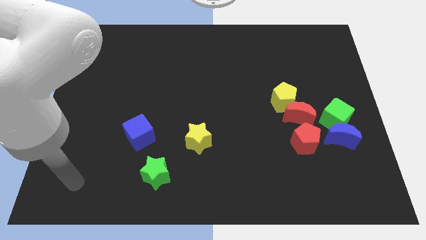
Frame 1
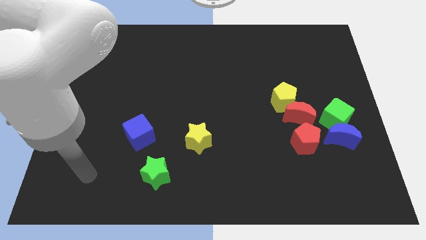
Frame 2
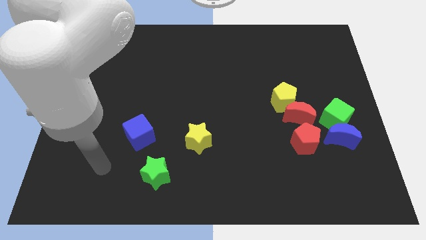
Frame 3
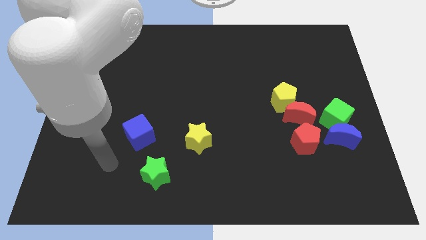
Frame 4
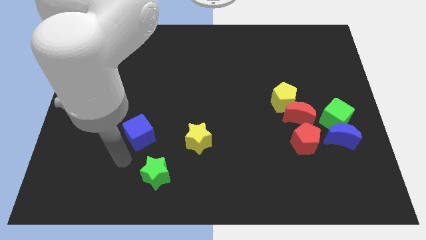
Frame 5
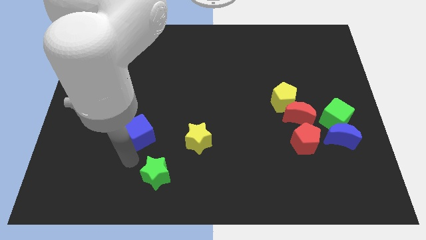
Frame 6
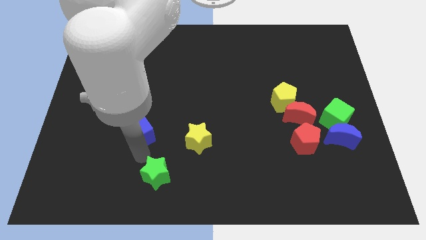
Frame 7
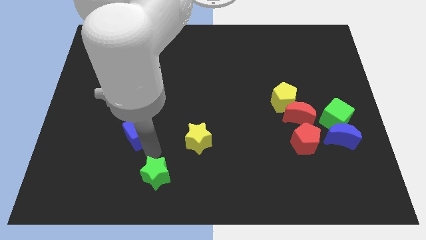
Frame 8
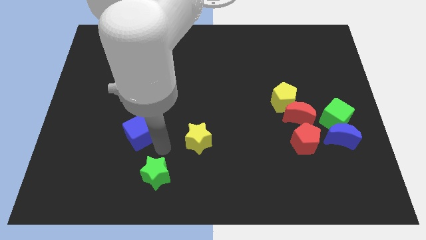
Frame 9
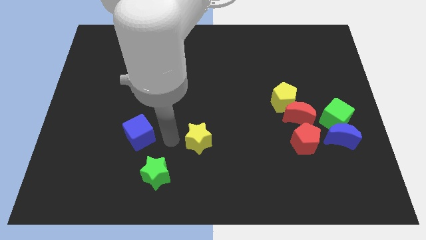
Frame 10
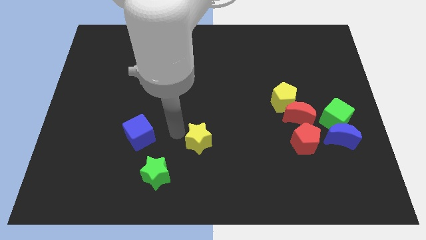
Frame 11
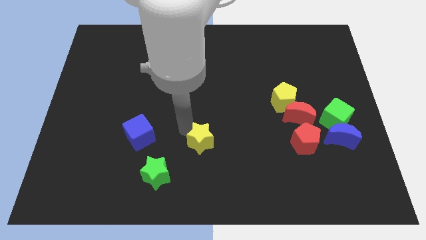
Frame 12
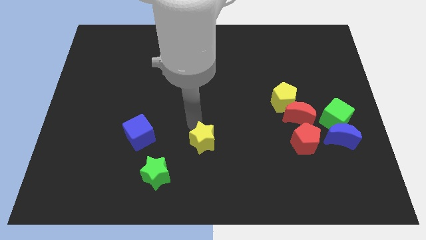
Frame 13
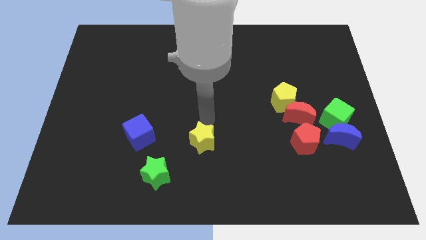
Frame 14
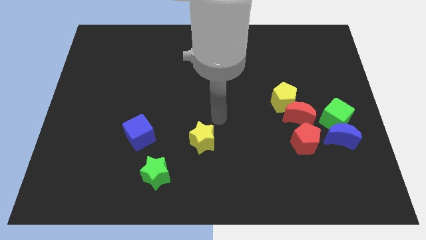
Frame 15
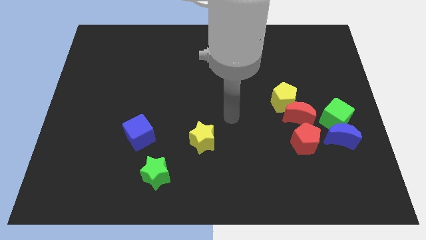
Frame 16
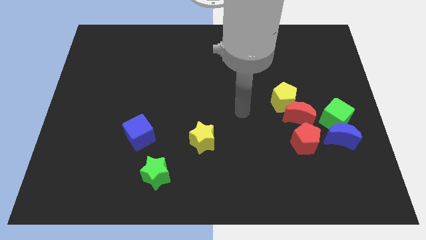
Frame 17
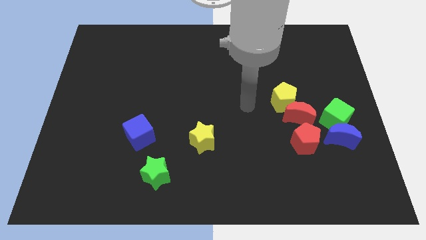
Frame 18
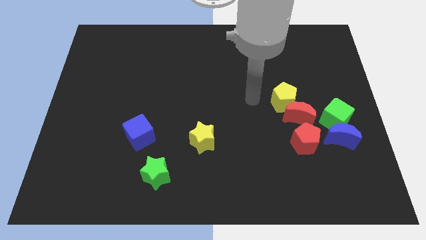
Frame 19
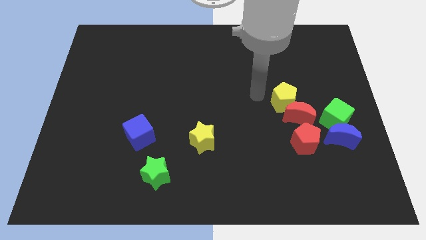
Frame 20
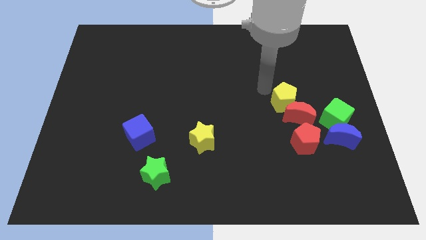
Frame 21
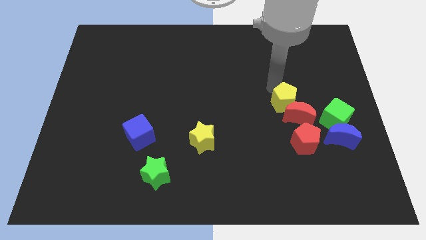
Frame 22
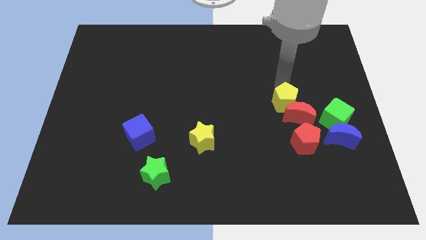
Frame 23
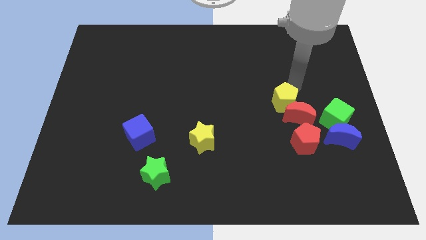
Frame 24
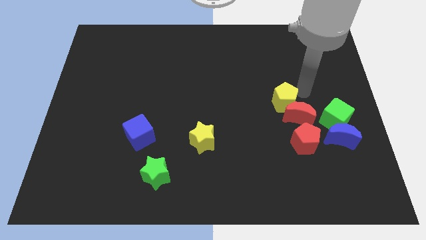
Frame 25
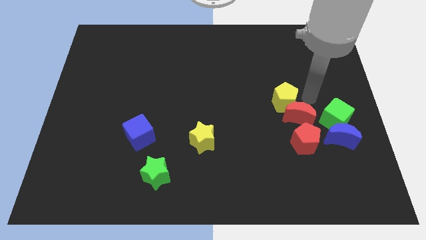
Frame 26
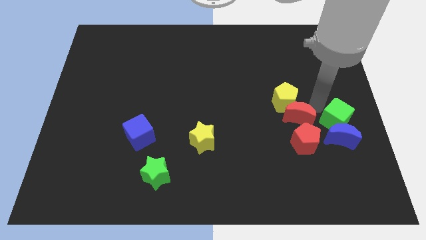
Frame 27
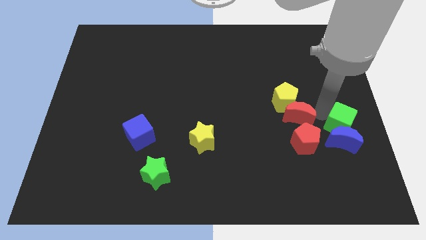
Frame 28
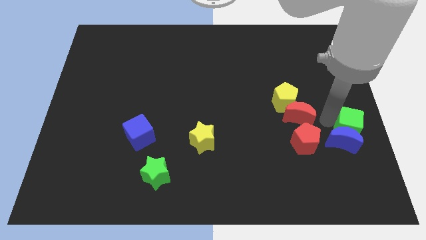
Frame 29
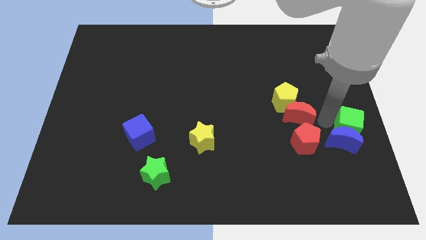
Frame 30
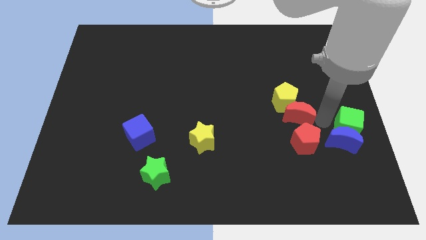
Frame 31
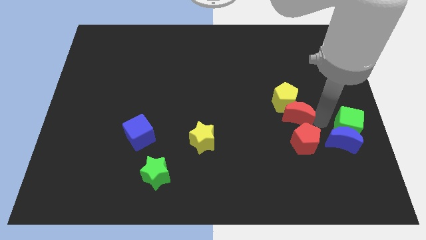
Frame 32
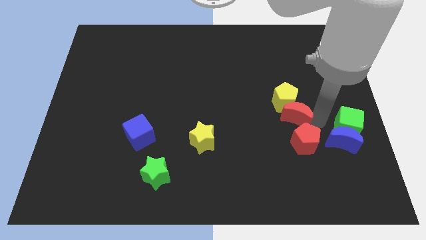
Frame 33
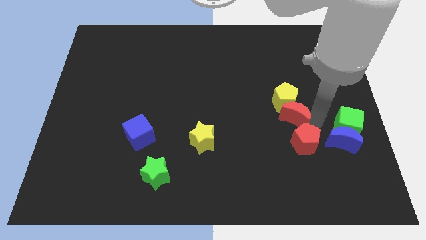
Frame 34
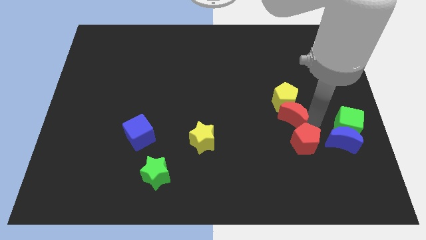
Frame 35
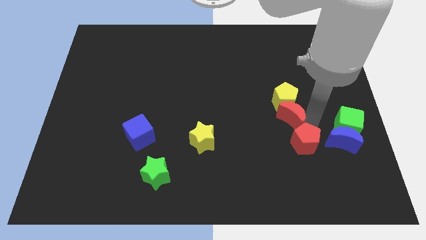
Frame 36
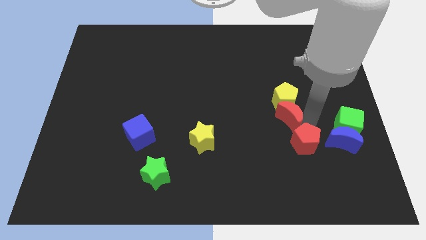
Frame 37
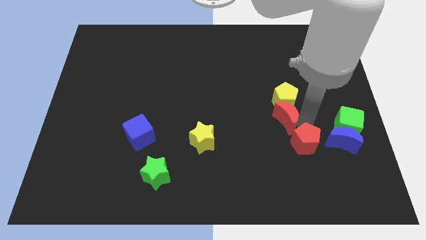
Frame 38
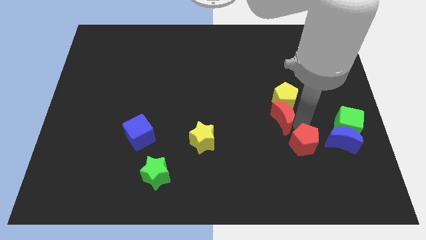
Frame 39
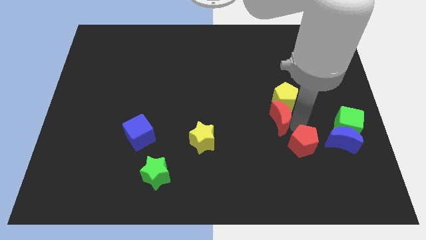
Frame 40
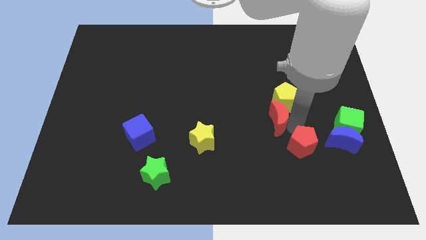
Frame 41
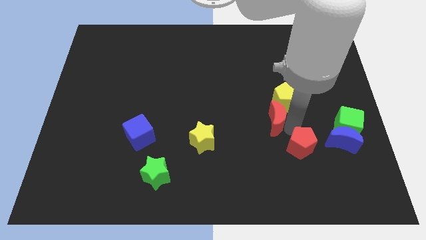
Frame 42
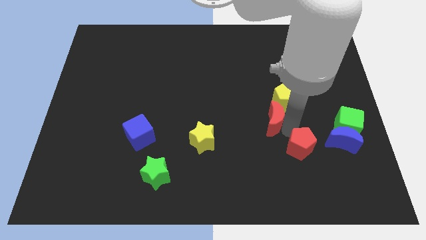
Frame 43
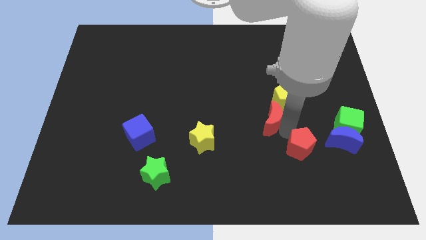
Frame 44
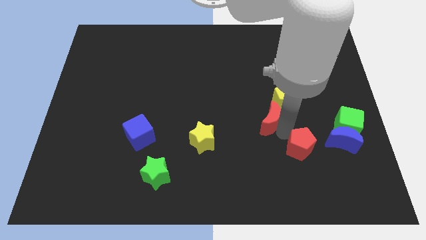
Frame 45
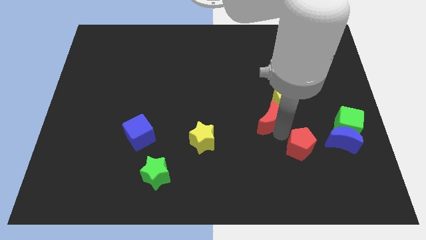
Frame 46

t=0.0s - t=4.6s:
move the red moon to the left somewhat

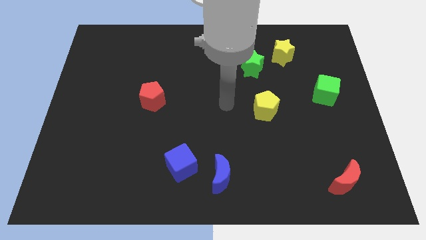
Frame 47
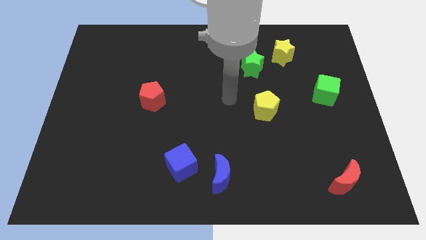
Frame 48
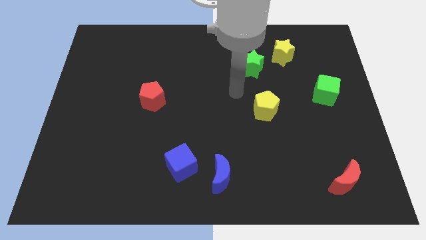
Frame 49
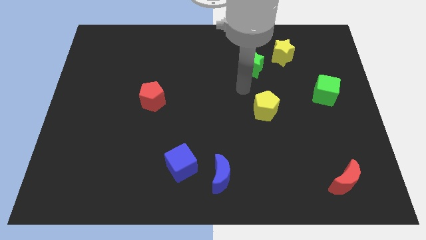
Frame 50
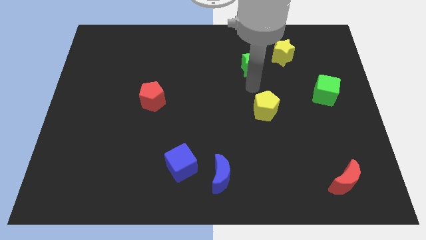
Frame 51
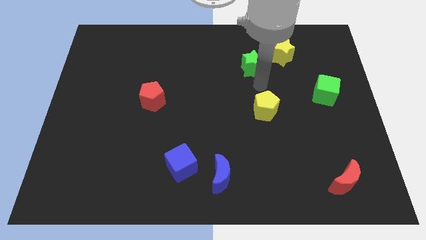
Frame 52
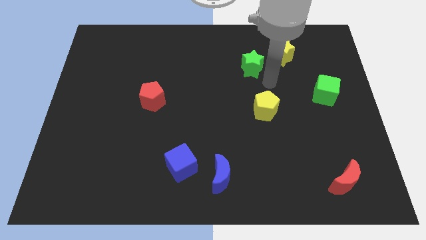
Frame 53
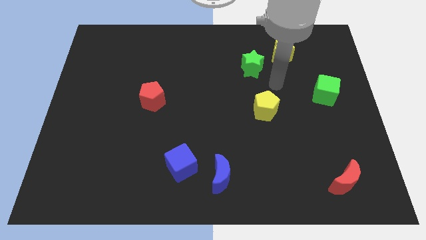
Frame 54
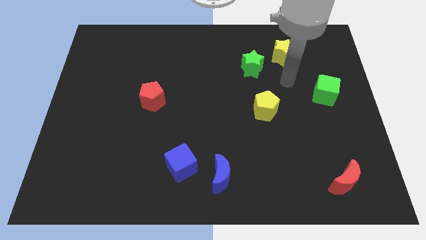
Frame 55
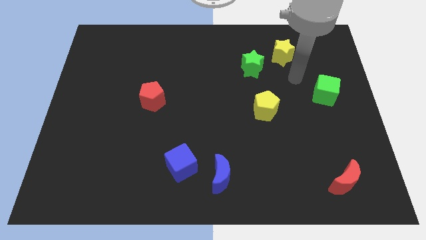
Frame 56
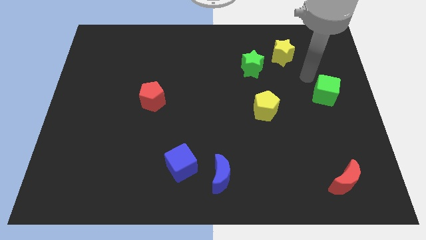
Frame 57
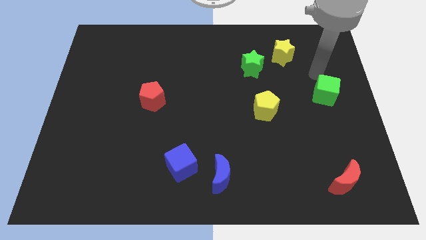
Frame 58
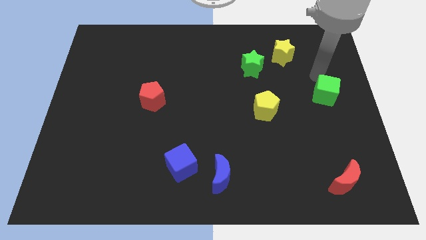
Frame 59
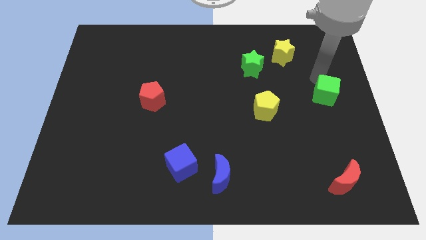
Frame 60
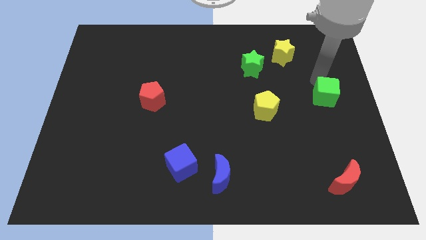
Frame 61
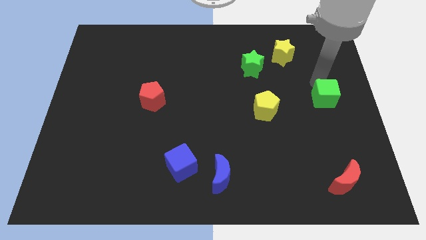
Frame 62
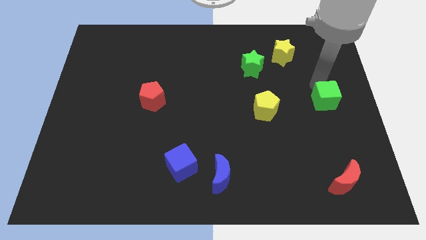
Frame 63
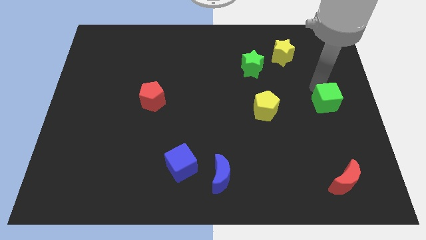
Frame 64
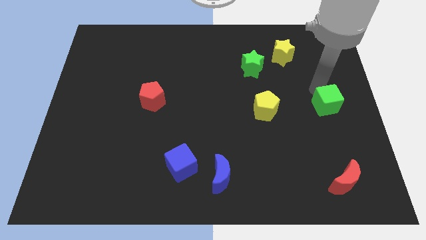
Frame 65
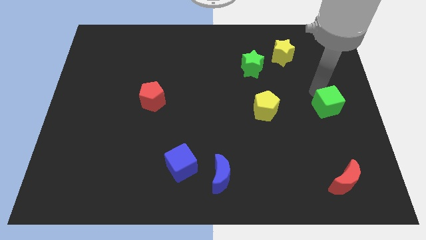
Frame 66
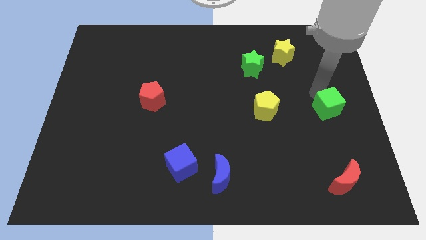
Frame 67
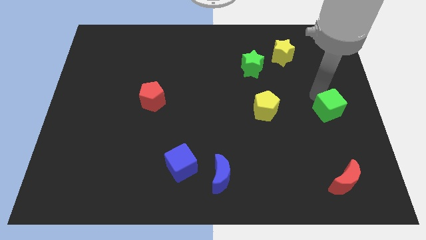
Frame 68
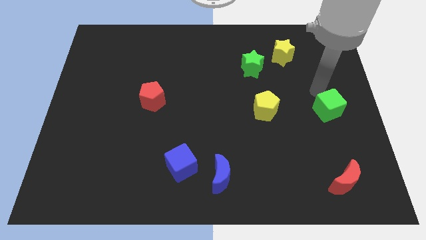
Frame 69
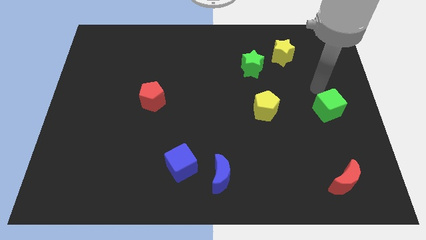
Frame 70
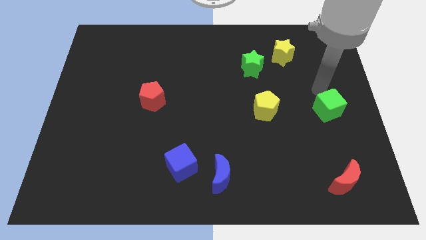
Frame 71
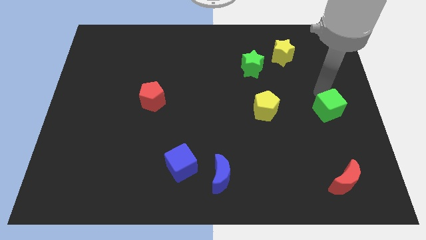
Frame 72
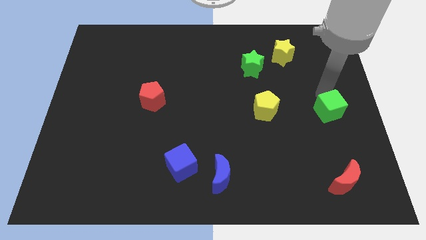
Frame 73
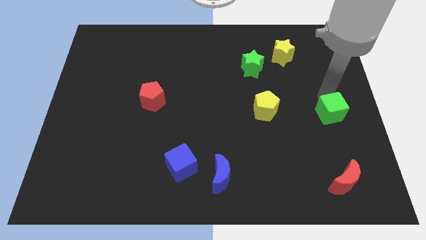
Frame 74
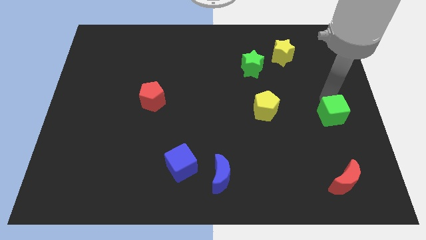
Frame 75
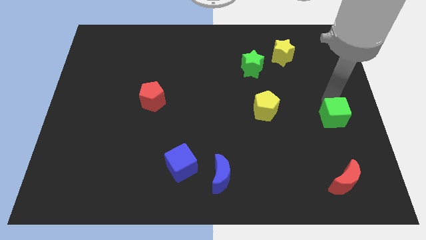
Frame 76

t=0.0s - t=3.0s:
slide the green cube downwards a bit

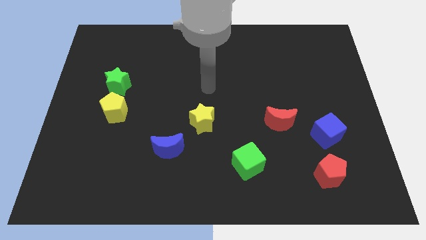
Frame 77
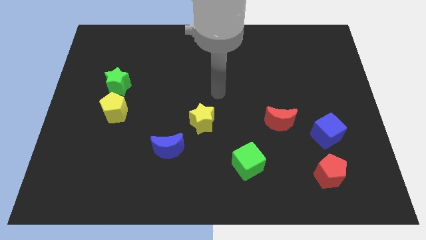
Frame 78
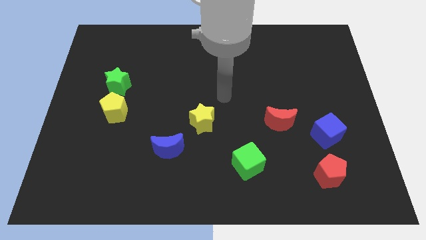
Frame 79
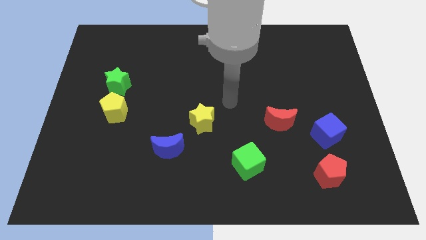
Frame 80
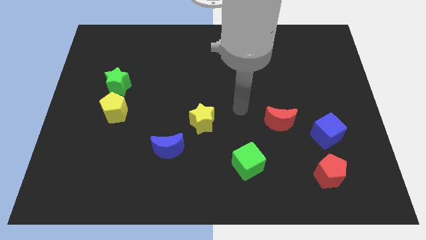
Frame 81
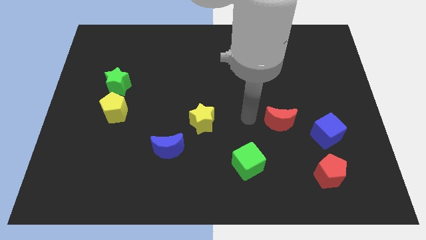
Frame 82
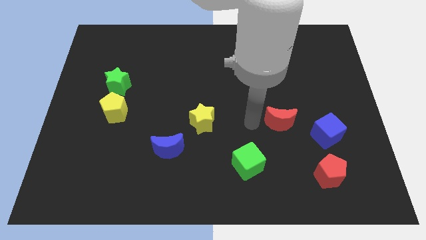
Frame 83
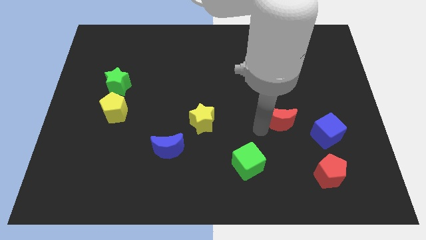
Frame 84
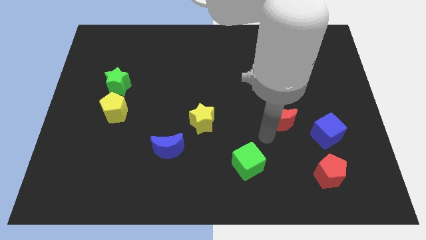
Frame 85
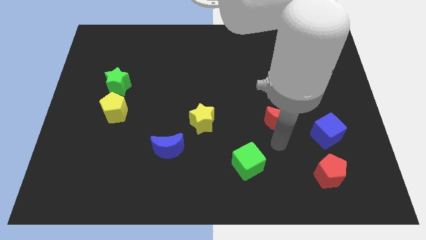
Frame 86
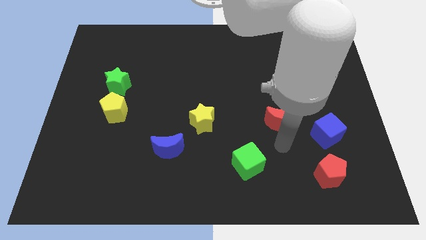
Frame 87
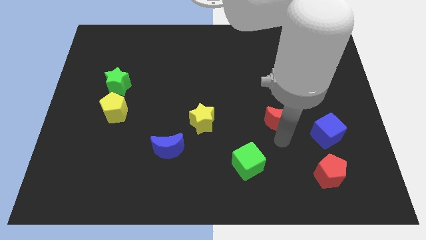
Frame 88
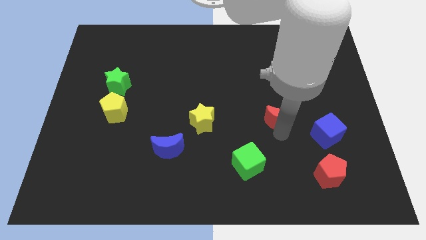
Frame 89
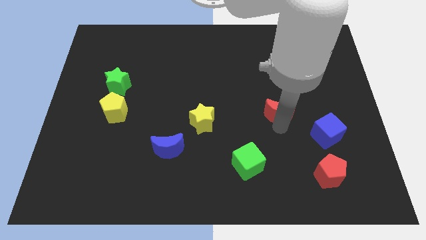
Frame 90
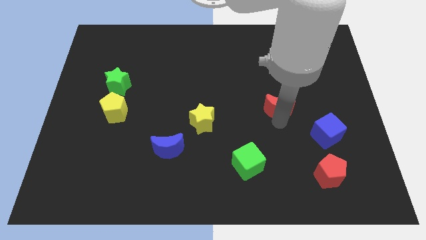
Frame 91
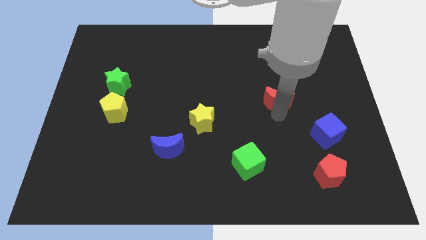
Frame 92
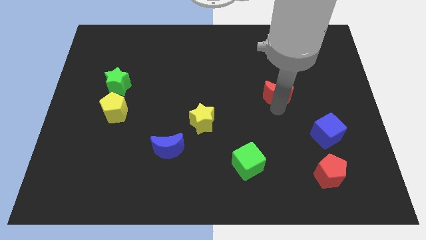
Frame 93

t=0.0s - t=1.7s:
slightly slide the red moon upwards
